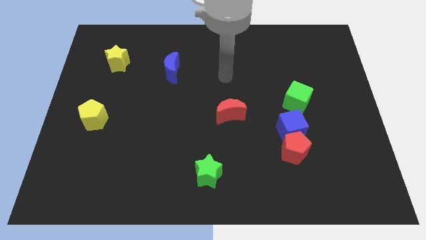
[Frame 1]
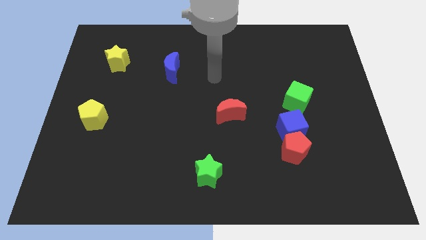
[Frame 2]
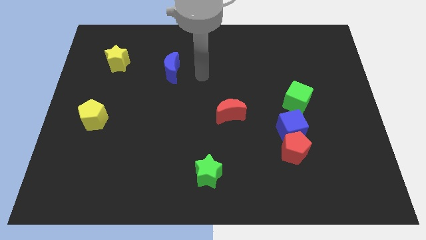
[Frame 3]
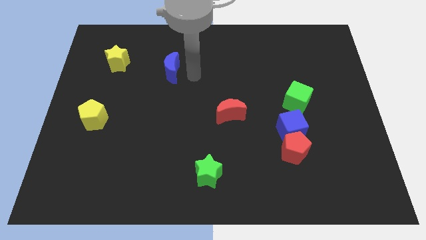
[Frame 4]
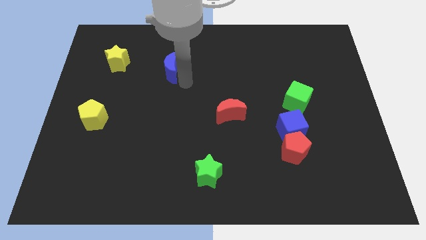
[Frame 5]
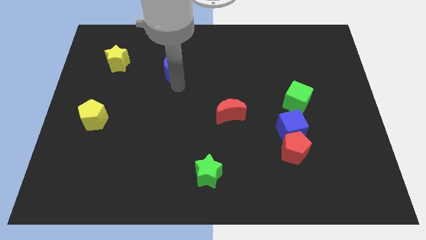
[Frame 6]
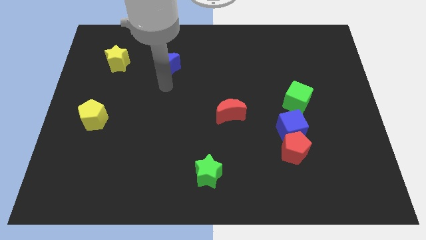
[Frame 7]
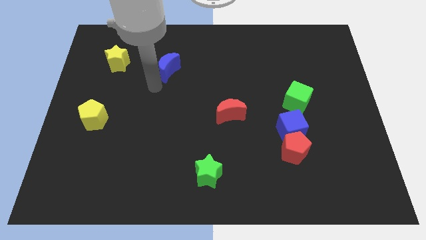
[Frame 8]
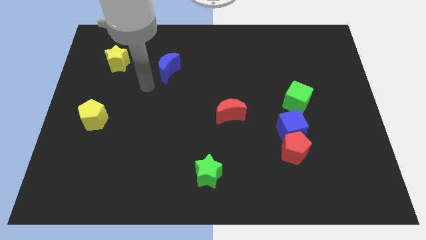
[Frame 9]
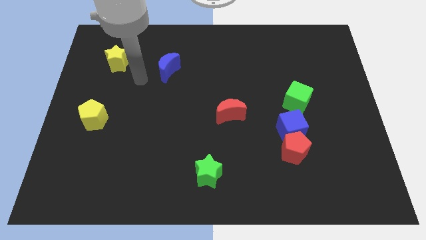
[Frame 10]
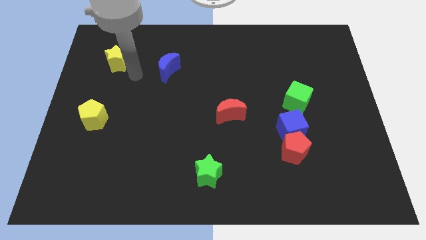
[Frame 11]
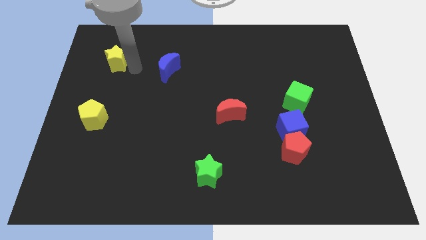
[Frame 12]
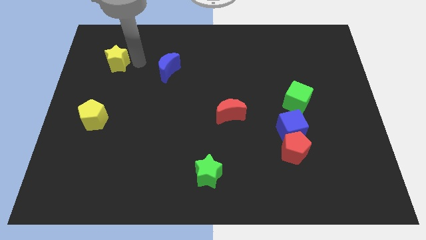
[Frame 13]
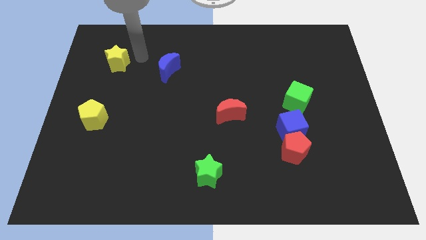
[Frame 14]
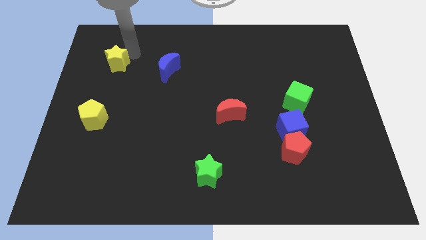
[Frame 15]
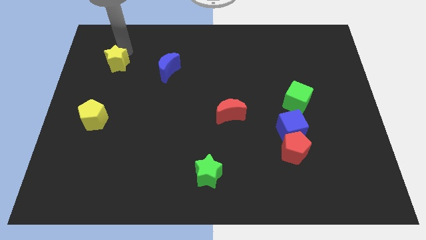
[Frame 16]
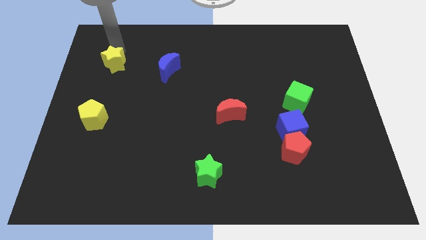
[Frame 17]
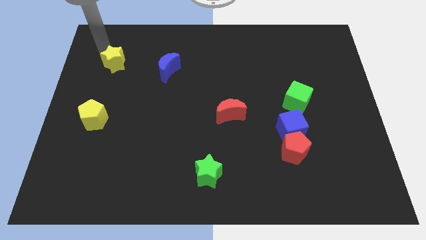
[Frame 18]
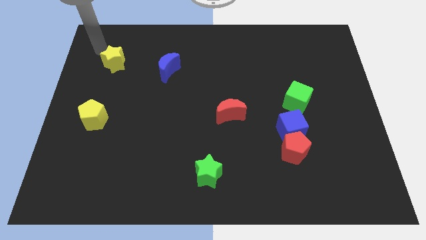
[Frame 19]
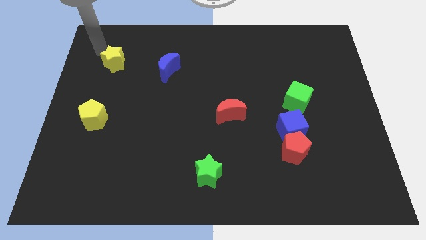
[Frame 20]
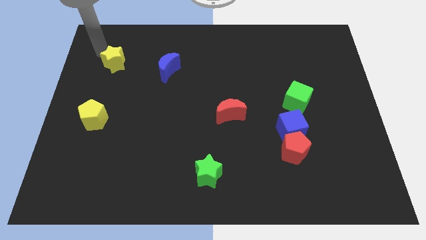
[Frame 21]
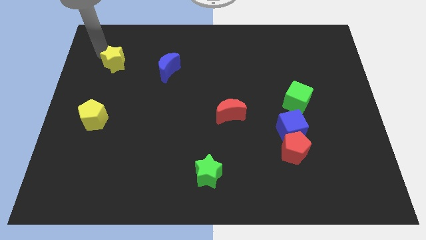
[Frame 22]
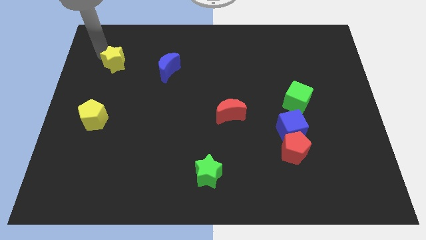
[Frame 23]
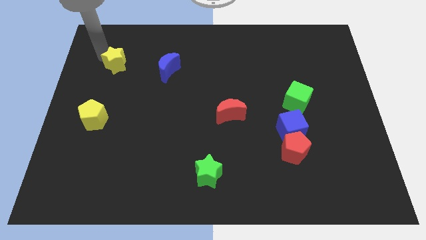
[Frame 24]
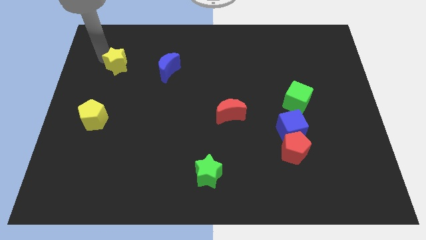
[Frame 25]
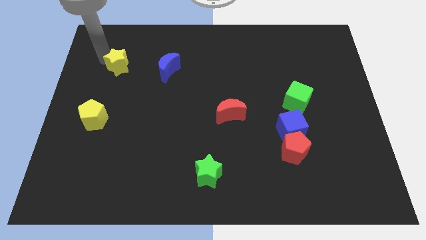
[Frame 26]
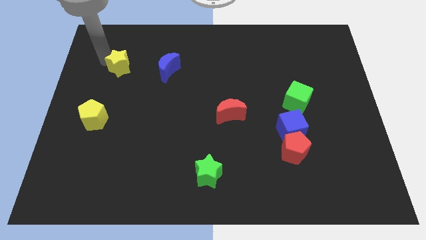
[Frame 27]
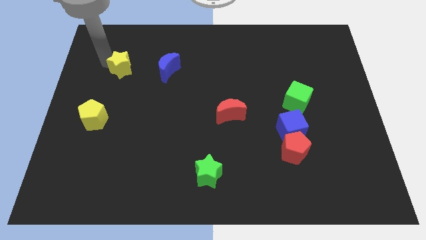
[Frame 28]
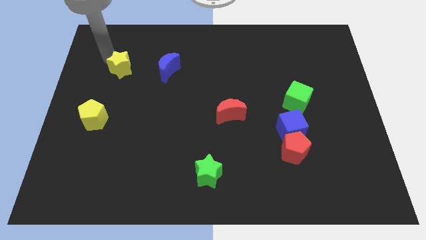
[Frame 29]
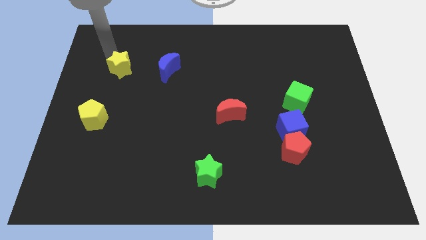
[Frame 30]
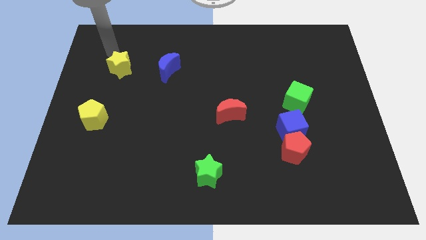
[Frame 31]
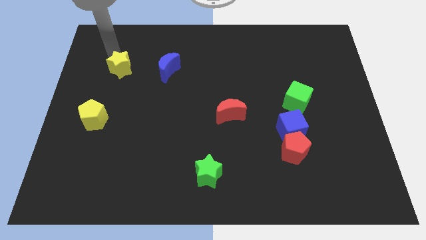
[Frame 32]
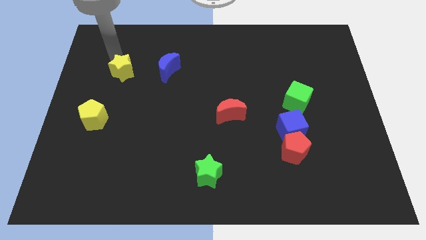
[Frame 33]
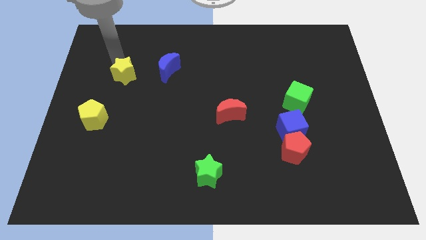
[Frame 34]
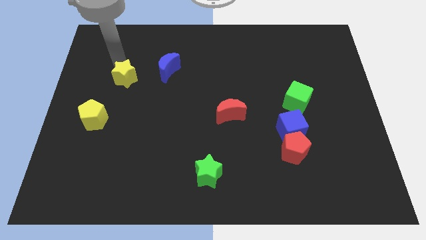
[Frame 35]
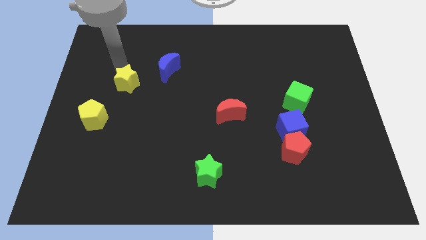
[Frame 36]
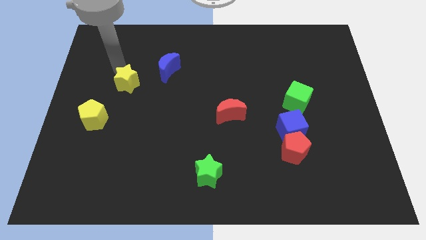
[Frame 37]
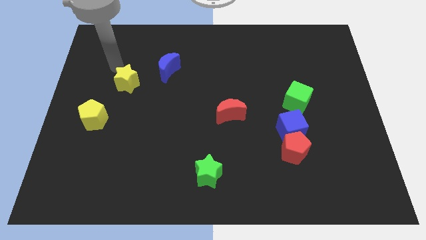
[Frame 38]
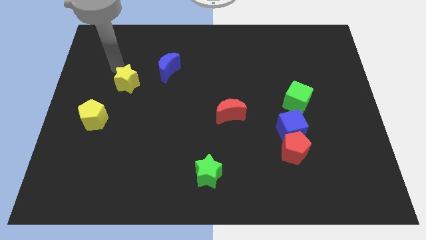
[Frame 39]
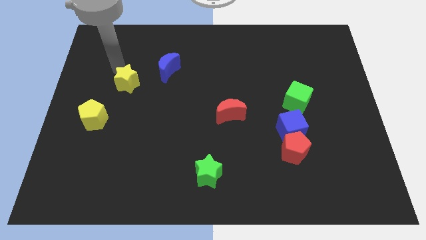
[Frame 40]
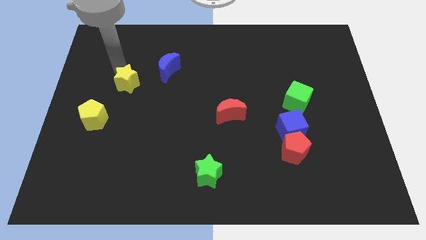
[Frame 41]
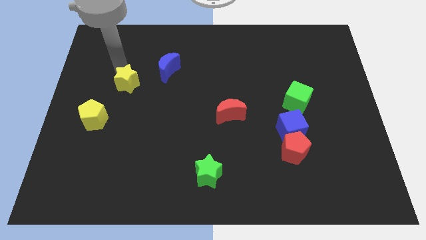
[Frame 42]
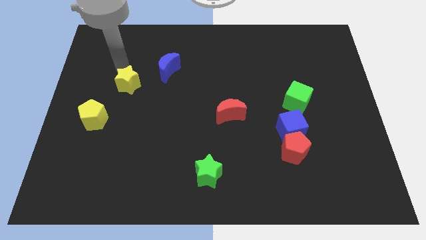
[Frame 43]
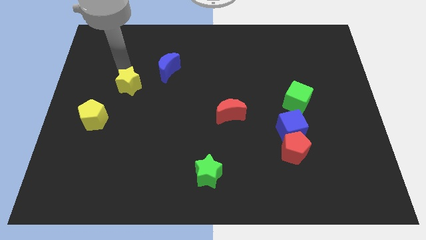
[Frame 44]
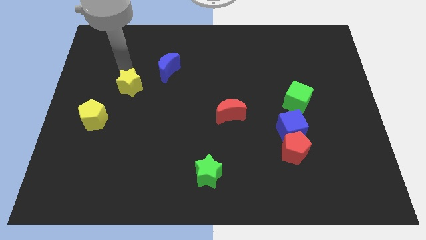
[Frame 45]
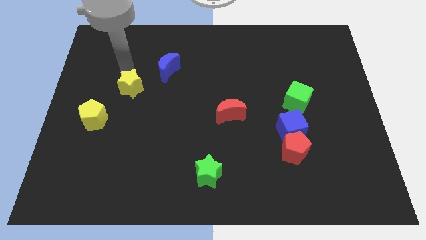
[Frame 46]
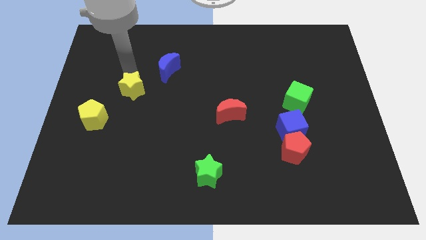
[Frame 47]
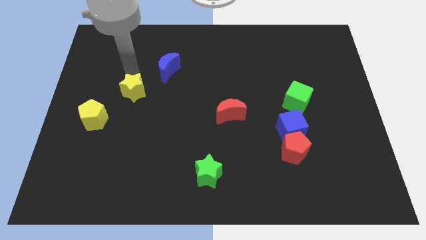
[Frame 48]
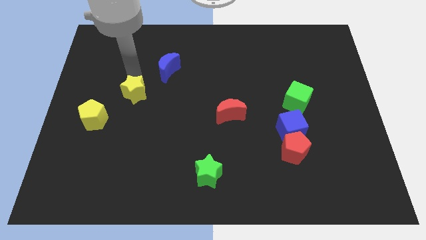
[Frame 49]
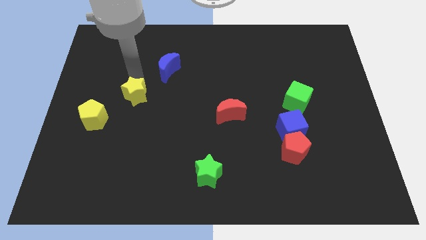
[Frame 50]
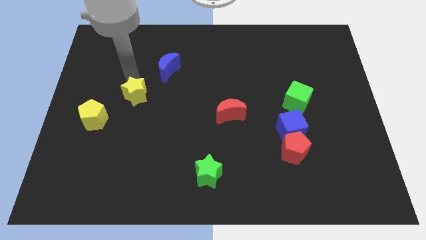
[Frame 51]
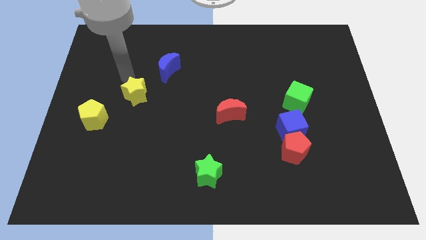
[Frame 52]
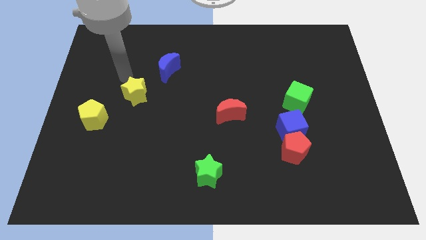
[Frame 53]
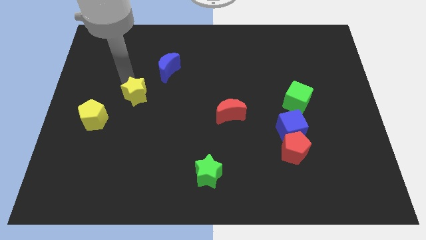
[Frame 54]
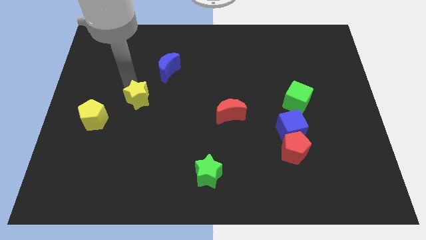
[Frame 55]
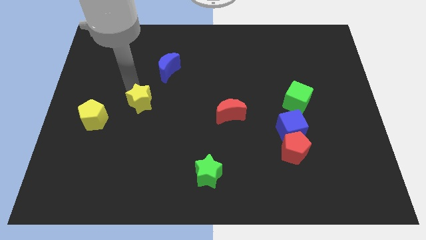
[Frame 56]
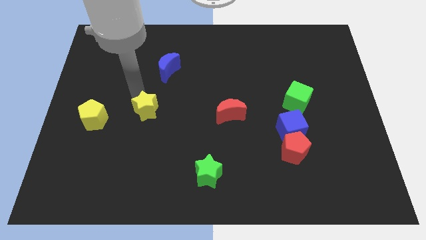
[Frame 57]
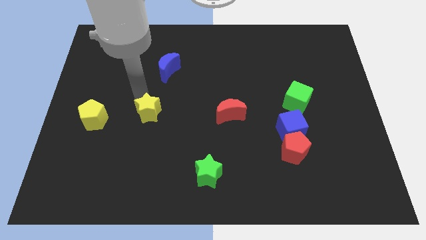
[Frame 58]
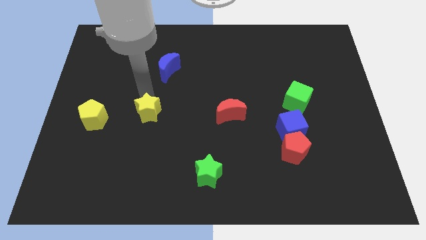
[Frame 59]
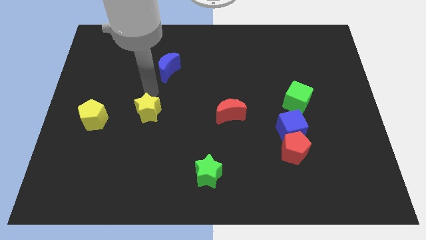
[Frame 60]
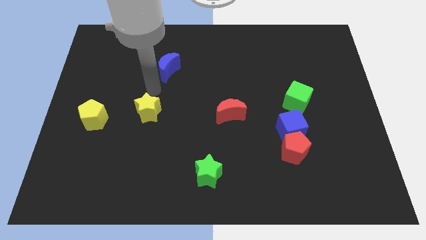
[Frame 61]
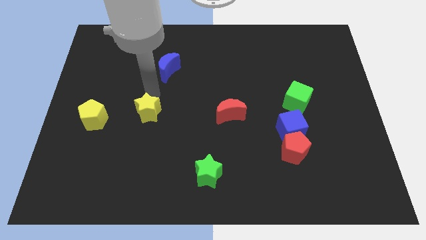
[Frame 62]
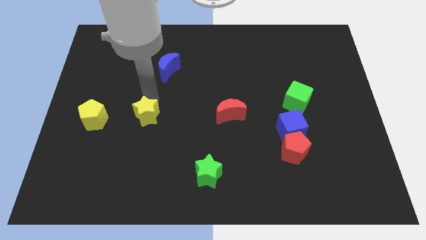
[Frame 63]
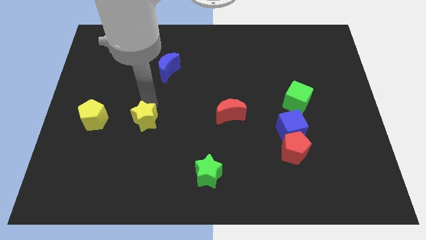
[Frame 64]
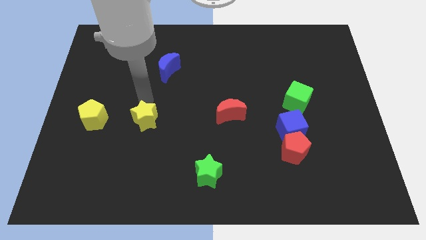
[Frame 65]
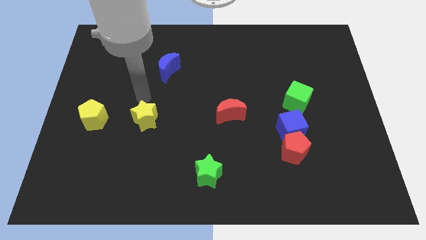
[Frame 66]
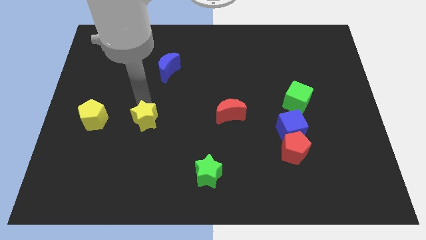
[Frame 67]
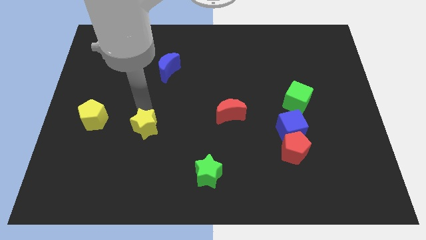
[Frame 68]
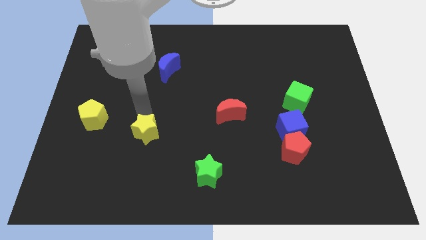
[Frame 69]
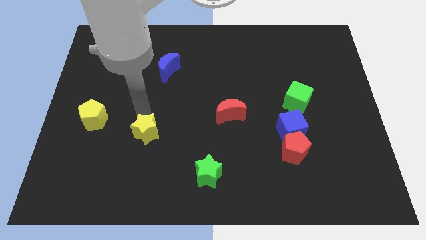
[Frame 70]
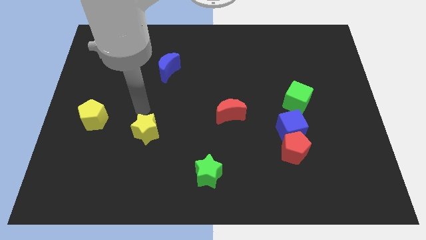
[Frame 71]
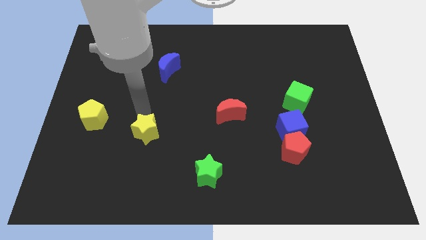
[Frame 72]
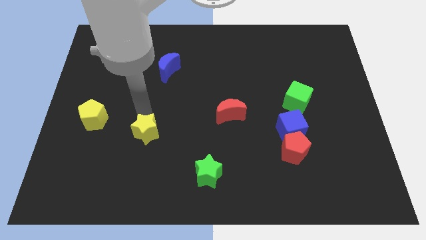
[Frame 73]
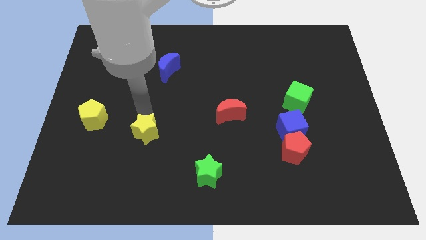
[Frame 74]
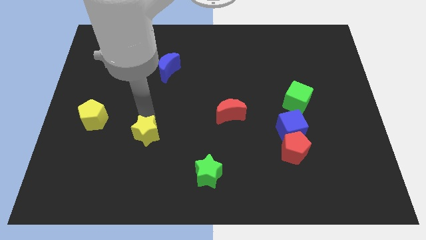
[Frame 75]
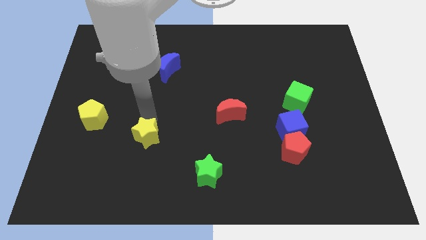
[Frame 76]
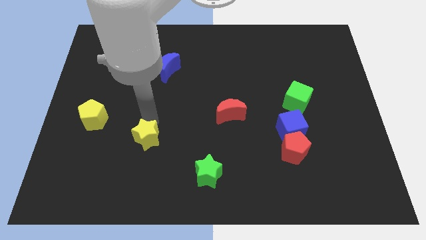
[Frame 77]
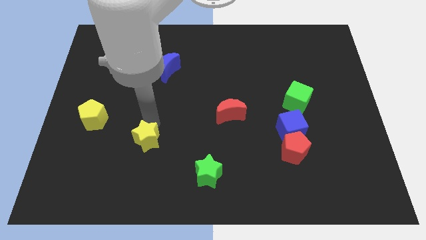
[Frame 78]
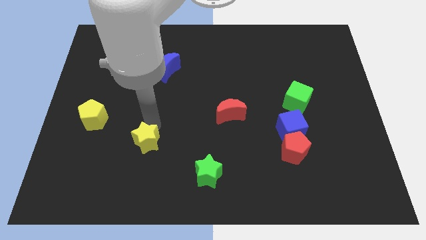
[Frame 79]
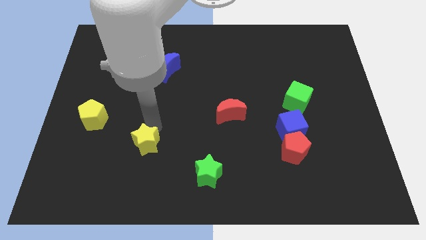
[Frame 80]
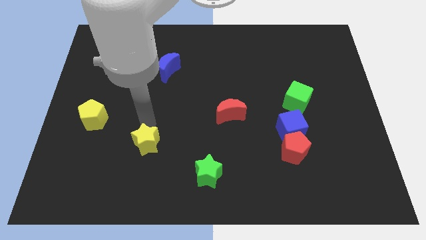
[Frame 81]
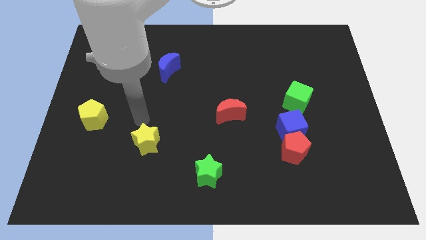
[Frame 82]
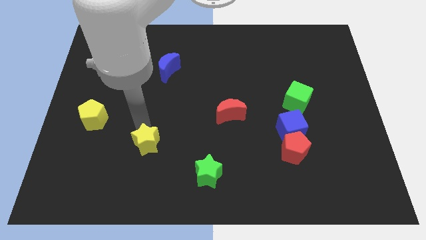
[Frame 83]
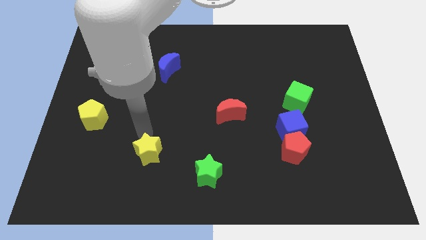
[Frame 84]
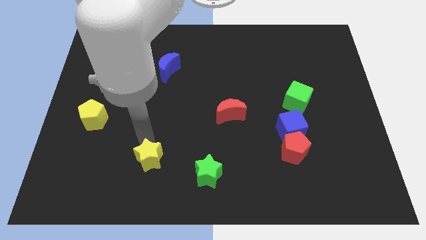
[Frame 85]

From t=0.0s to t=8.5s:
slide the yellow star to the left side of the green star
